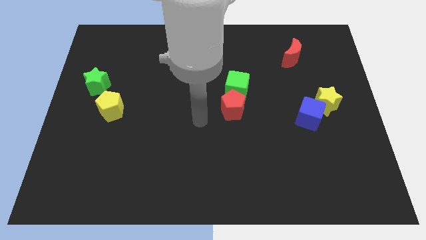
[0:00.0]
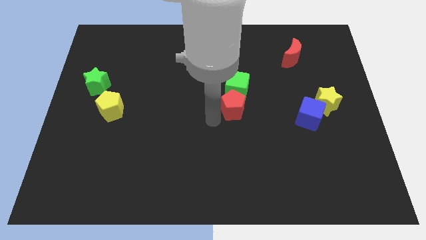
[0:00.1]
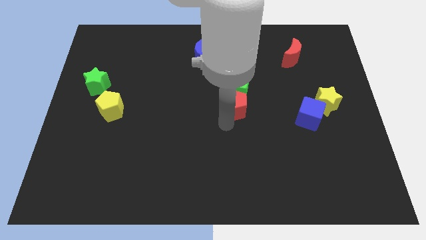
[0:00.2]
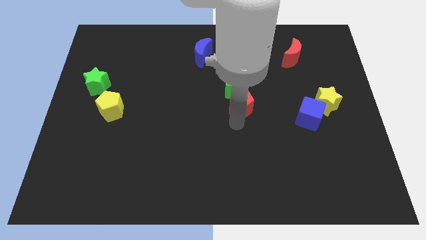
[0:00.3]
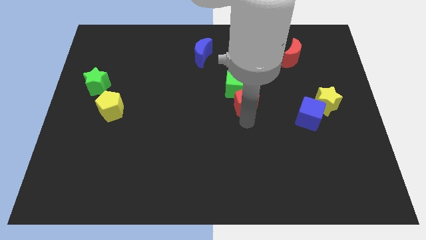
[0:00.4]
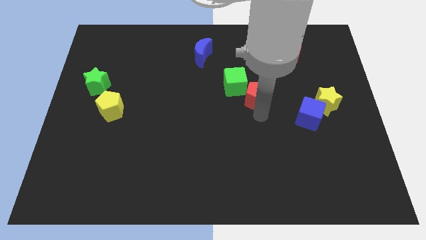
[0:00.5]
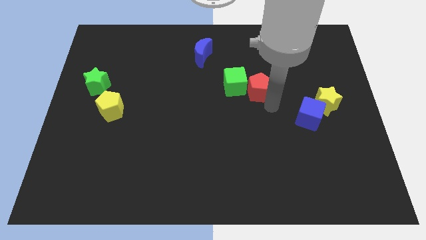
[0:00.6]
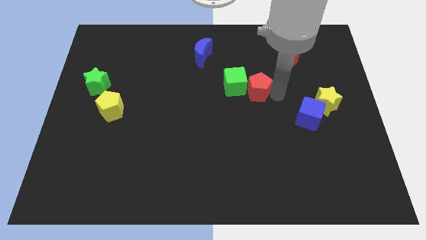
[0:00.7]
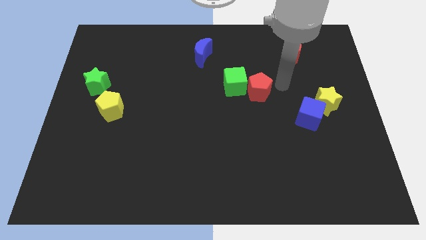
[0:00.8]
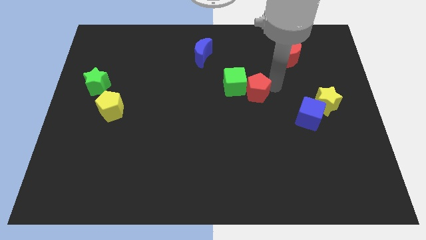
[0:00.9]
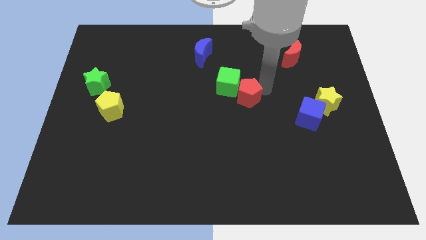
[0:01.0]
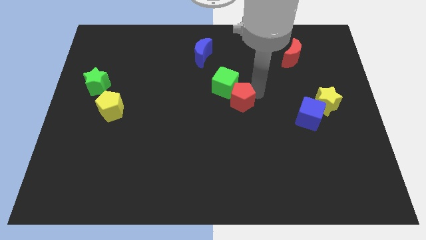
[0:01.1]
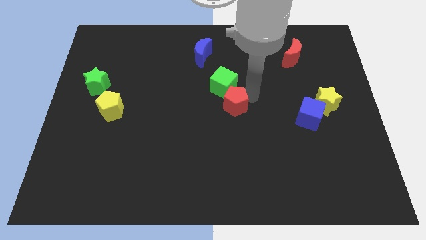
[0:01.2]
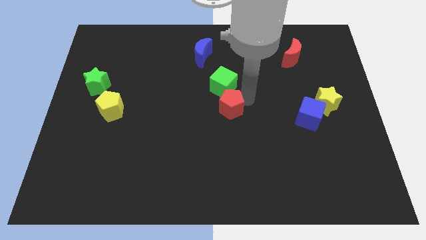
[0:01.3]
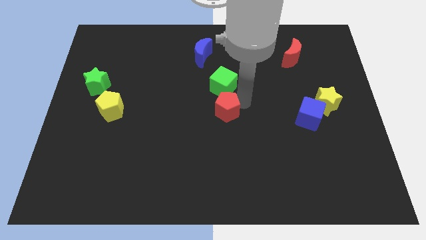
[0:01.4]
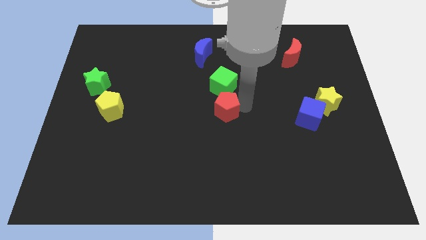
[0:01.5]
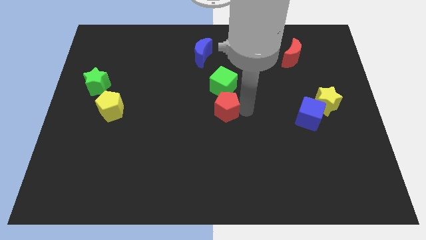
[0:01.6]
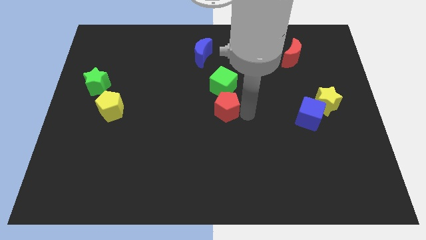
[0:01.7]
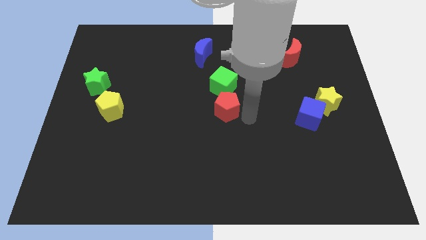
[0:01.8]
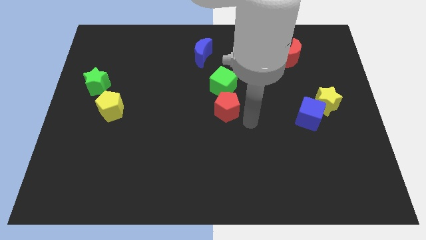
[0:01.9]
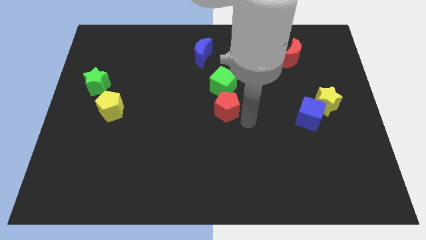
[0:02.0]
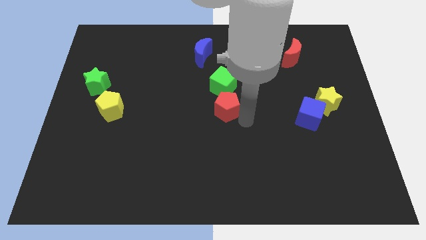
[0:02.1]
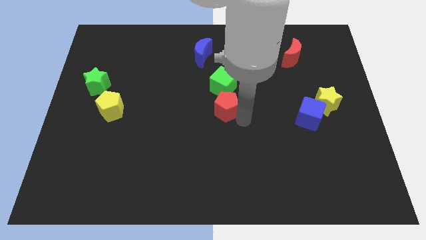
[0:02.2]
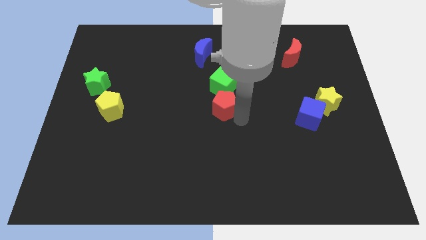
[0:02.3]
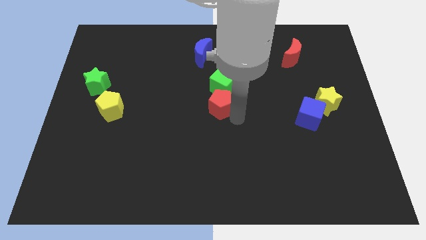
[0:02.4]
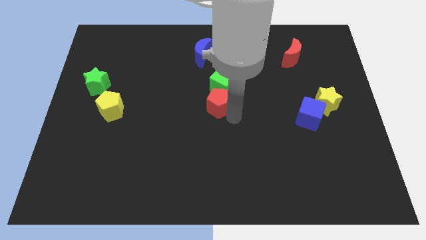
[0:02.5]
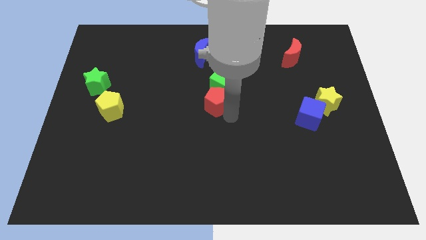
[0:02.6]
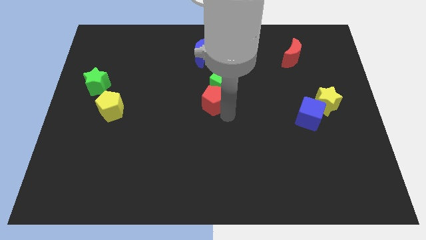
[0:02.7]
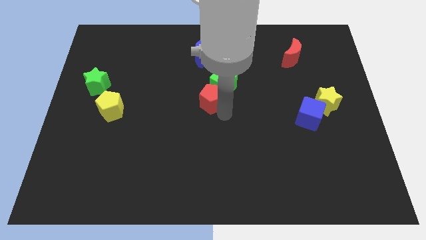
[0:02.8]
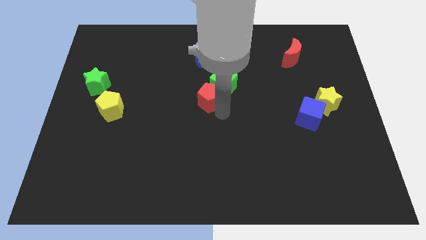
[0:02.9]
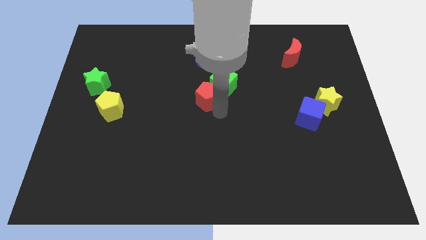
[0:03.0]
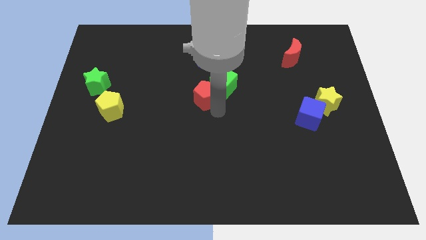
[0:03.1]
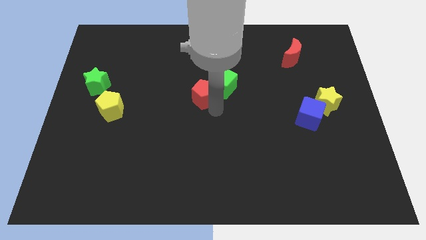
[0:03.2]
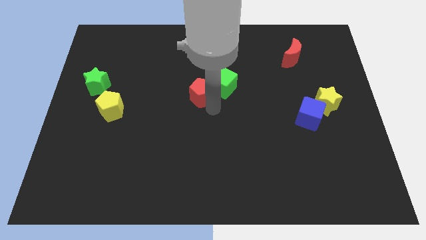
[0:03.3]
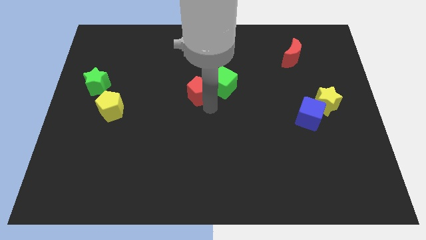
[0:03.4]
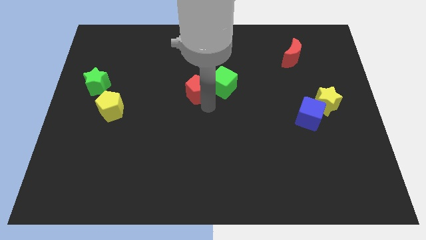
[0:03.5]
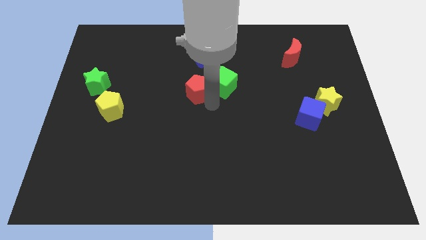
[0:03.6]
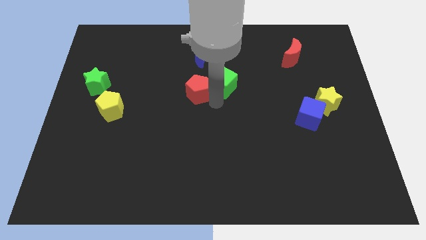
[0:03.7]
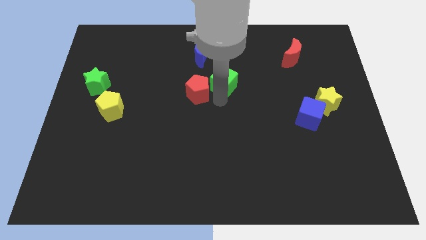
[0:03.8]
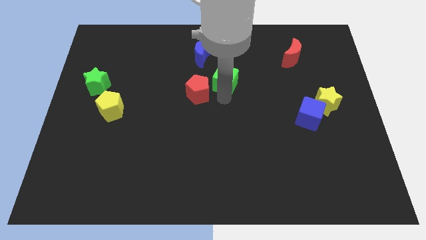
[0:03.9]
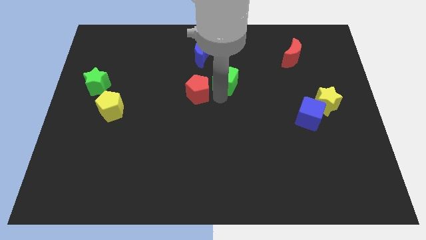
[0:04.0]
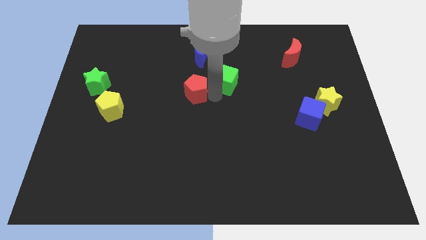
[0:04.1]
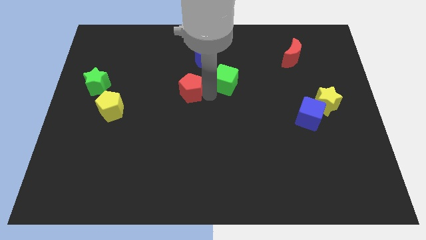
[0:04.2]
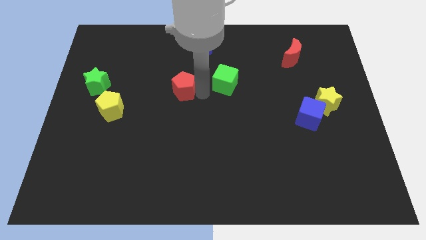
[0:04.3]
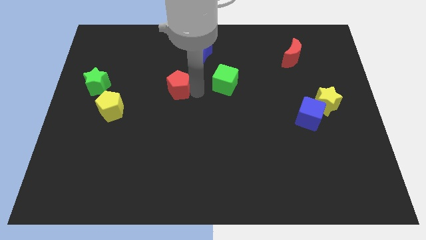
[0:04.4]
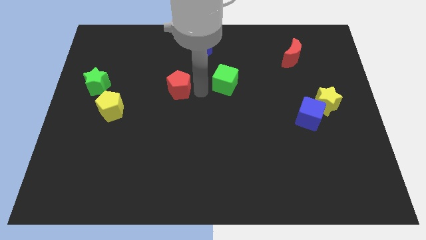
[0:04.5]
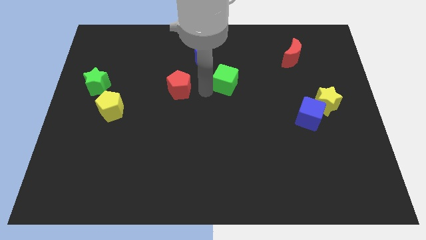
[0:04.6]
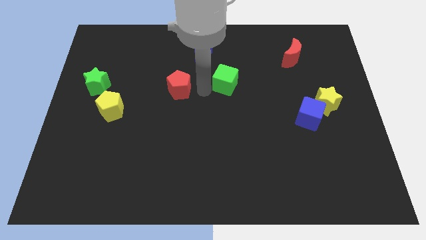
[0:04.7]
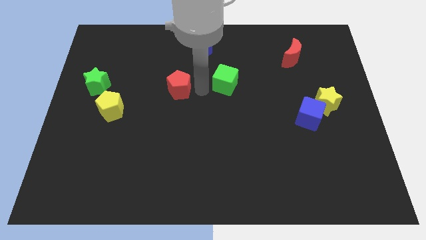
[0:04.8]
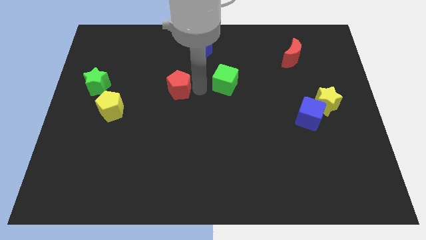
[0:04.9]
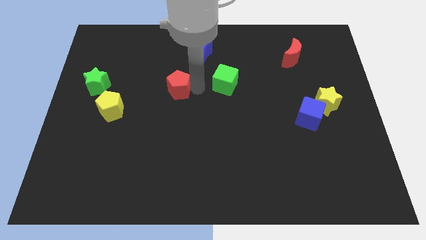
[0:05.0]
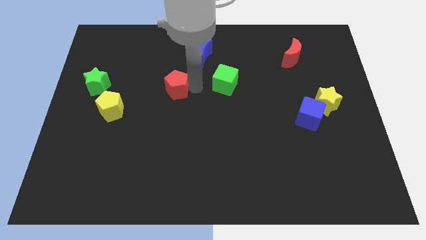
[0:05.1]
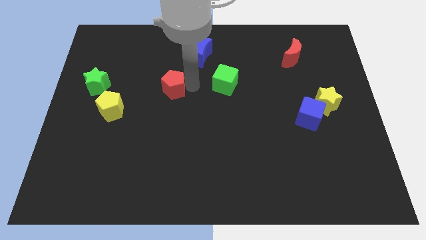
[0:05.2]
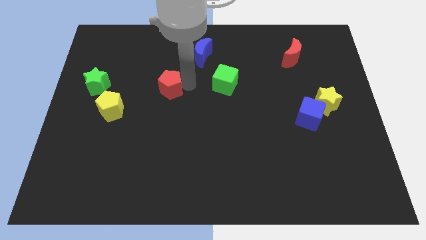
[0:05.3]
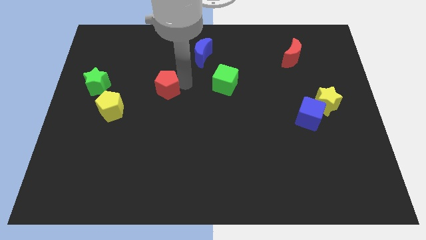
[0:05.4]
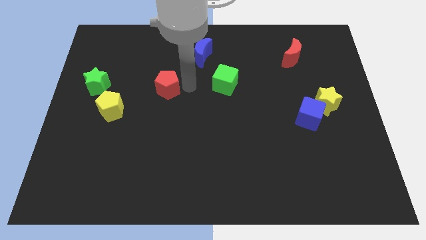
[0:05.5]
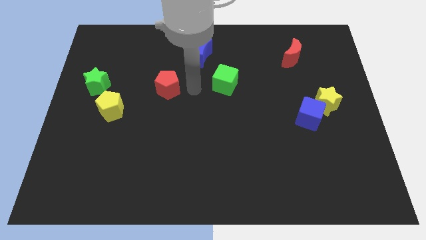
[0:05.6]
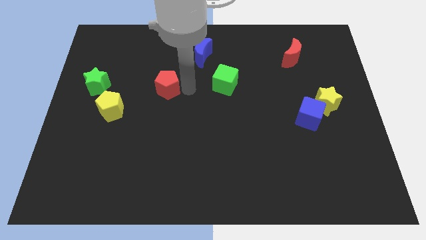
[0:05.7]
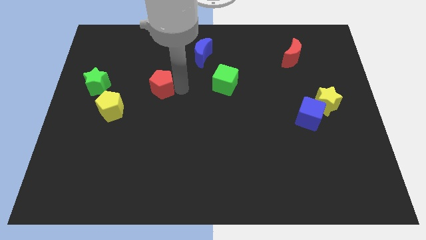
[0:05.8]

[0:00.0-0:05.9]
move the red pentagon just right of the green star

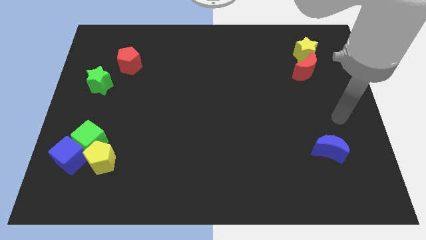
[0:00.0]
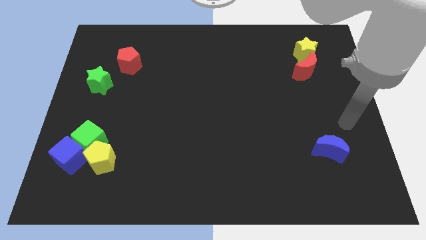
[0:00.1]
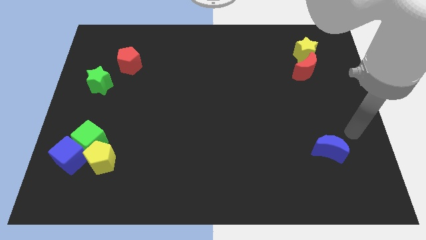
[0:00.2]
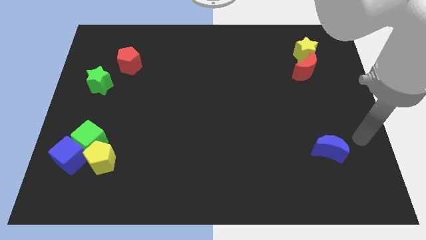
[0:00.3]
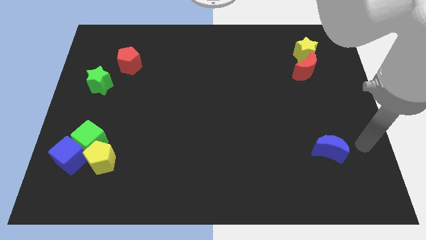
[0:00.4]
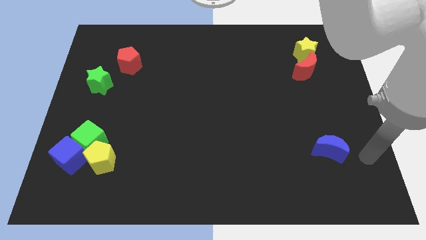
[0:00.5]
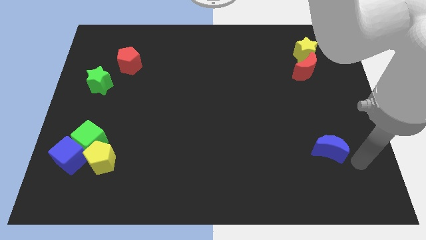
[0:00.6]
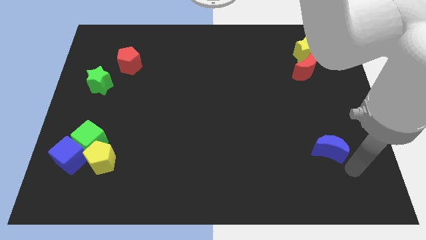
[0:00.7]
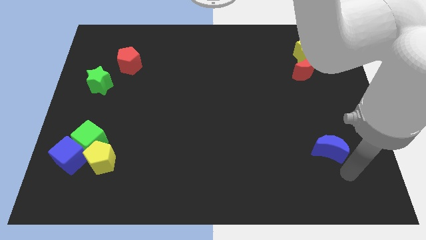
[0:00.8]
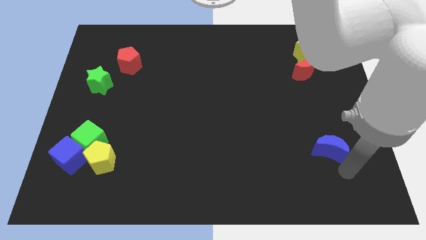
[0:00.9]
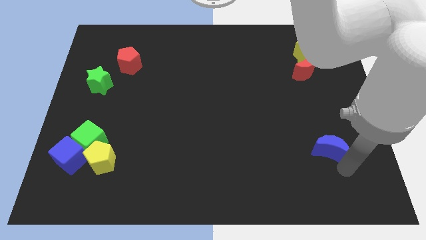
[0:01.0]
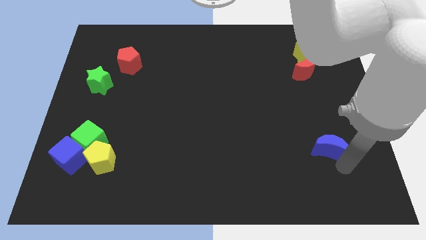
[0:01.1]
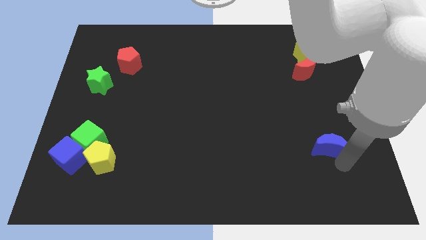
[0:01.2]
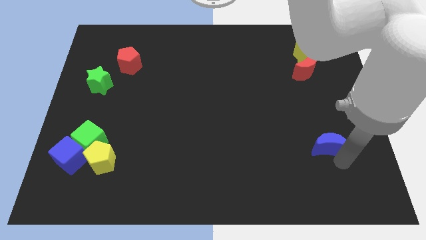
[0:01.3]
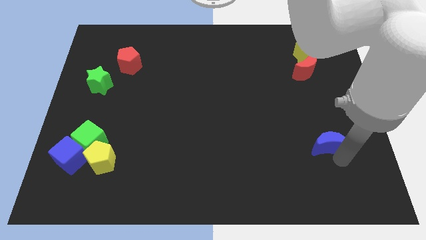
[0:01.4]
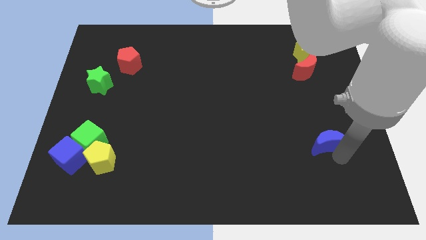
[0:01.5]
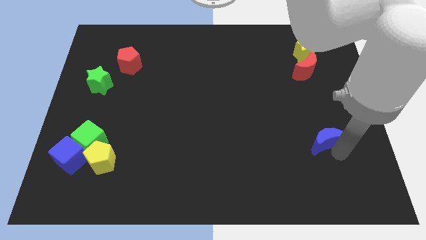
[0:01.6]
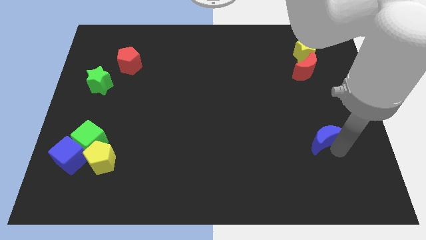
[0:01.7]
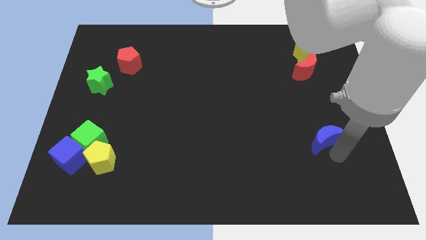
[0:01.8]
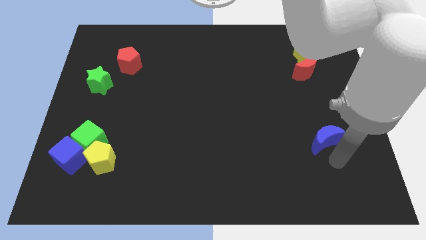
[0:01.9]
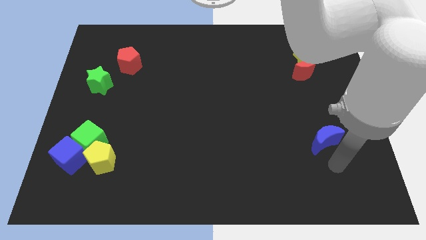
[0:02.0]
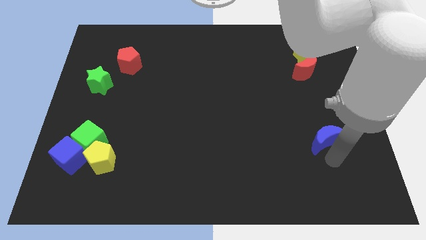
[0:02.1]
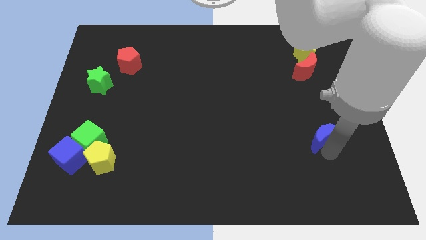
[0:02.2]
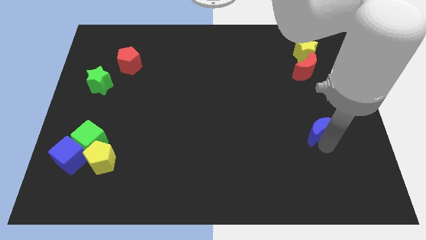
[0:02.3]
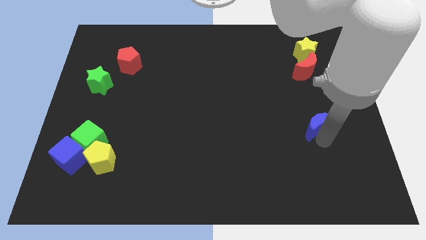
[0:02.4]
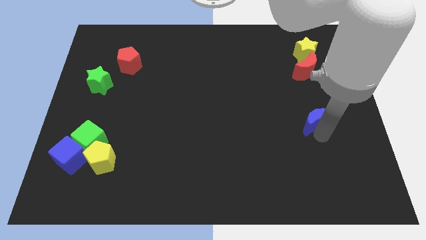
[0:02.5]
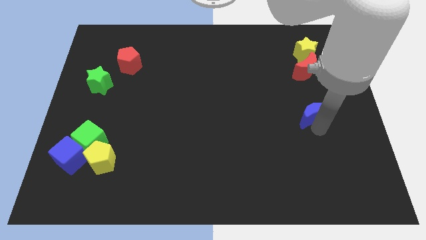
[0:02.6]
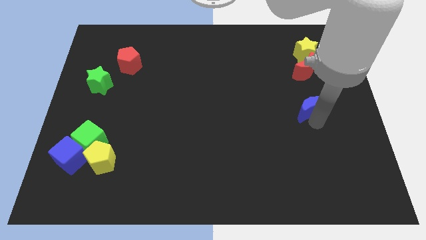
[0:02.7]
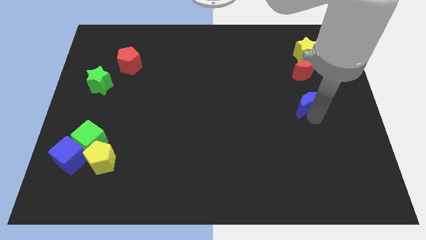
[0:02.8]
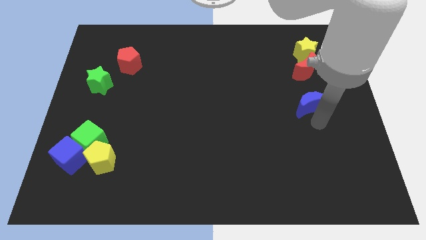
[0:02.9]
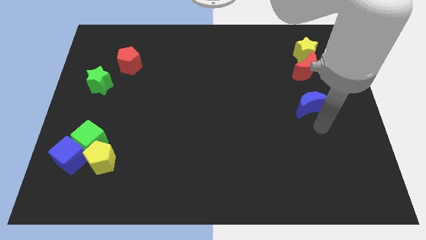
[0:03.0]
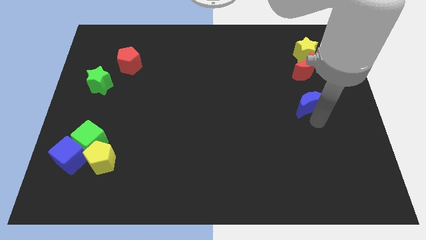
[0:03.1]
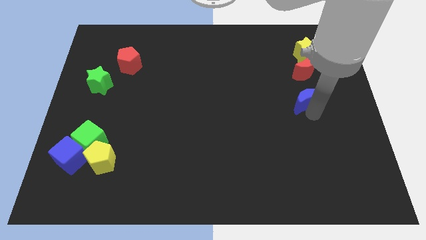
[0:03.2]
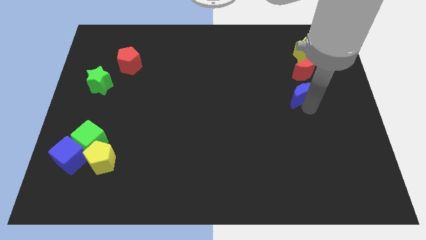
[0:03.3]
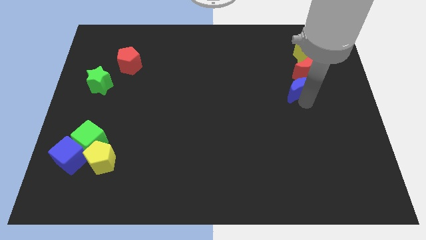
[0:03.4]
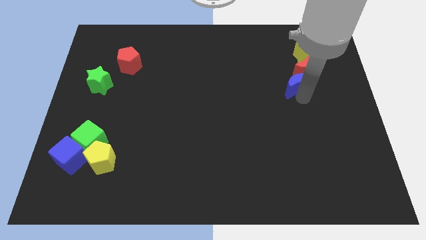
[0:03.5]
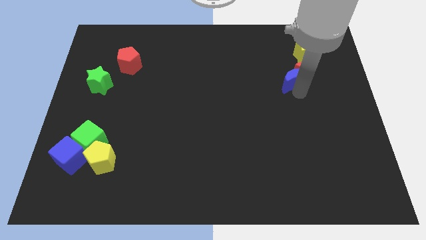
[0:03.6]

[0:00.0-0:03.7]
push the blue moon to the bottom left of the yellow star
